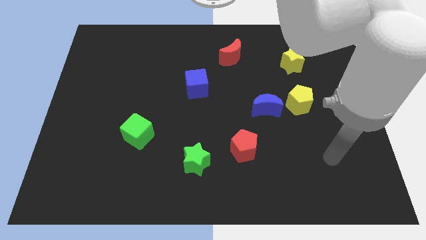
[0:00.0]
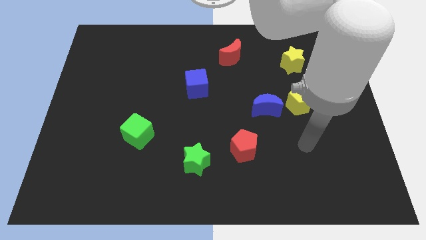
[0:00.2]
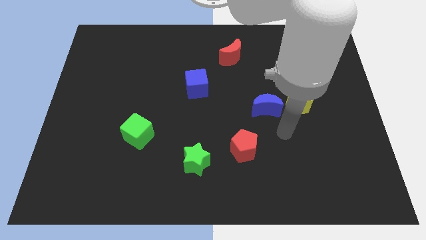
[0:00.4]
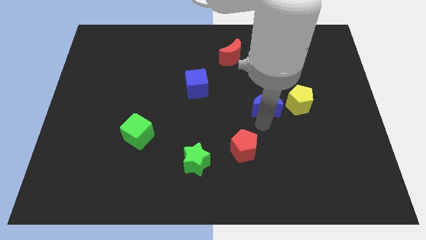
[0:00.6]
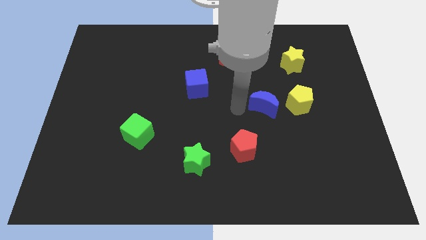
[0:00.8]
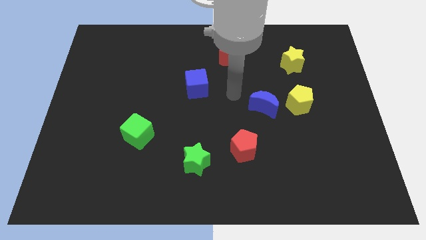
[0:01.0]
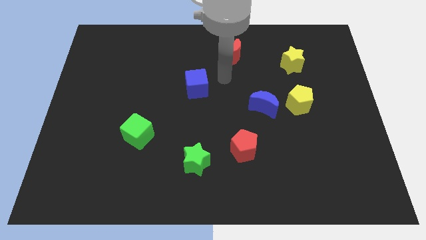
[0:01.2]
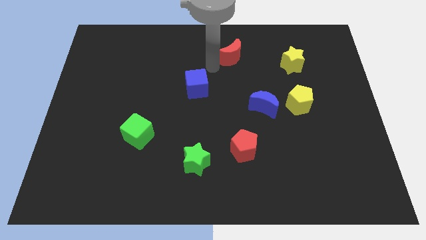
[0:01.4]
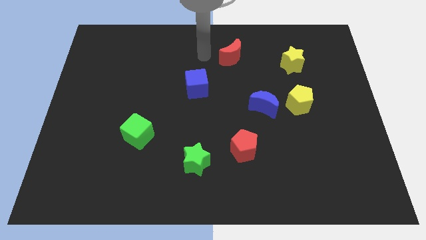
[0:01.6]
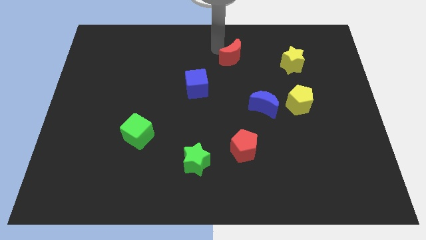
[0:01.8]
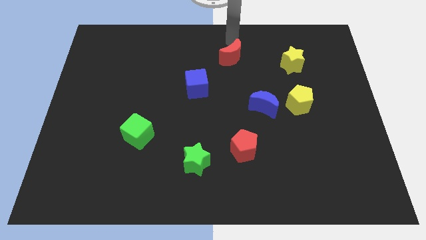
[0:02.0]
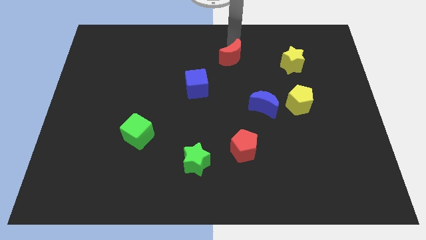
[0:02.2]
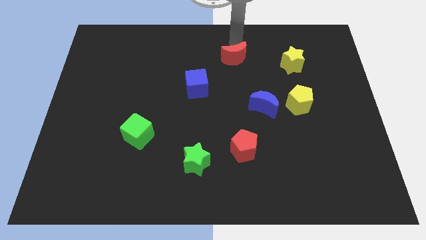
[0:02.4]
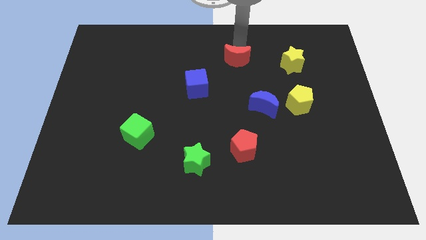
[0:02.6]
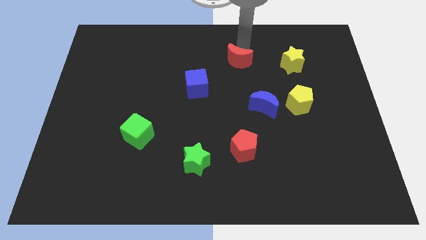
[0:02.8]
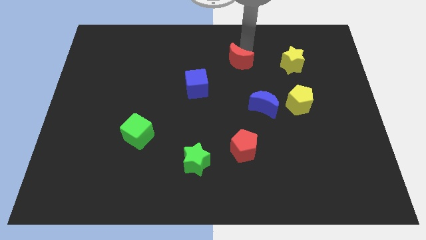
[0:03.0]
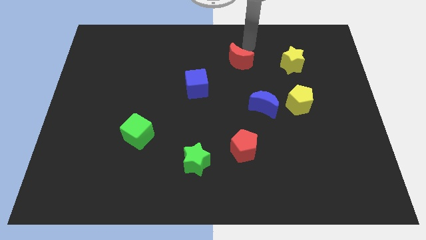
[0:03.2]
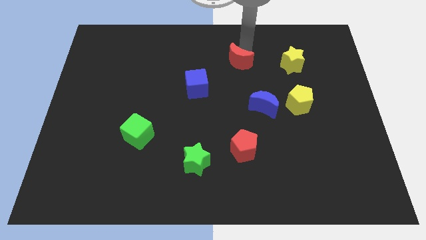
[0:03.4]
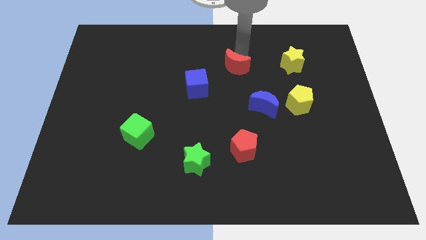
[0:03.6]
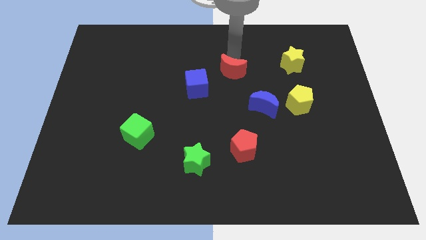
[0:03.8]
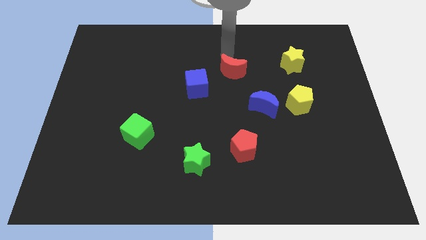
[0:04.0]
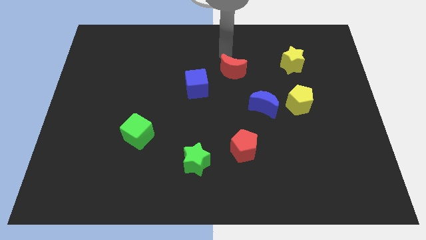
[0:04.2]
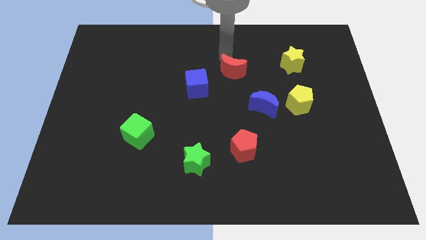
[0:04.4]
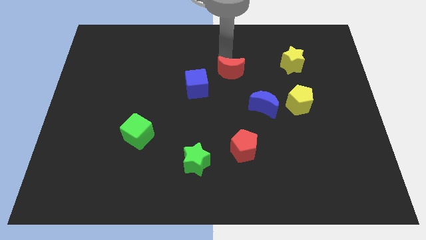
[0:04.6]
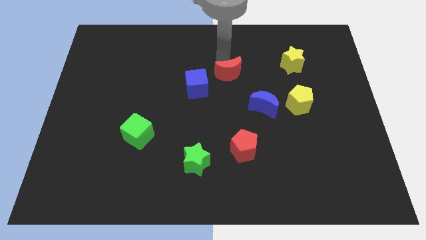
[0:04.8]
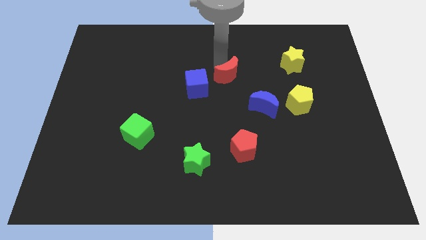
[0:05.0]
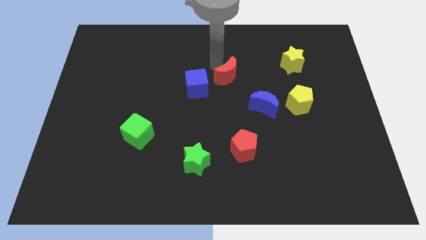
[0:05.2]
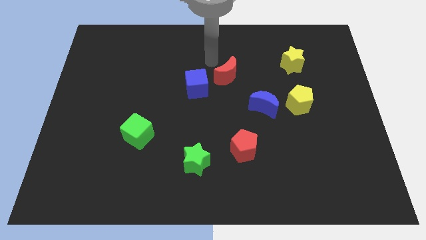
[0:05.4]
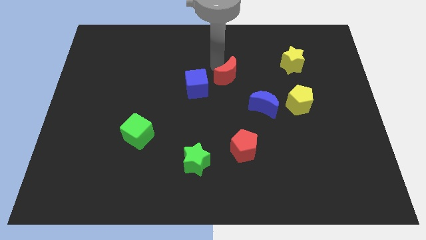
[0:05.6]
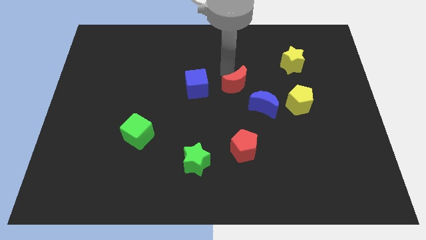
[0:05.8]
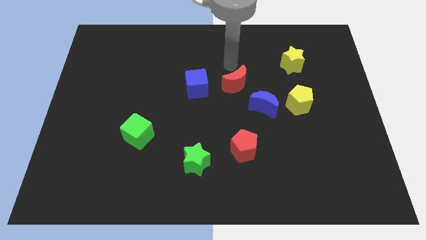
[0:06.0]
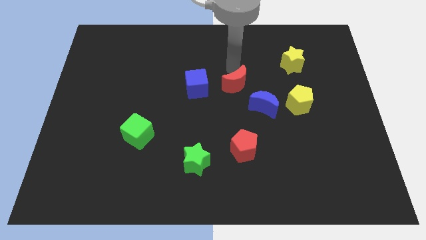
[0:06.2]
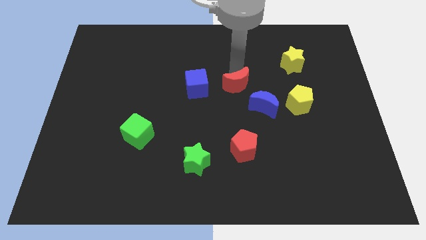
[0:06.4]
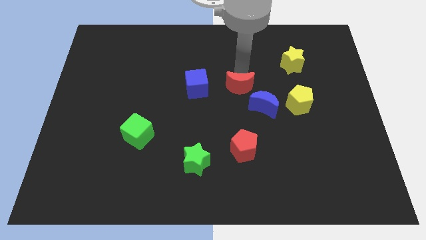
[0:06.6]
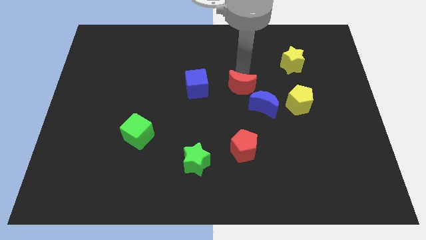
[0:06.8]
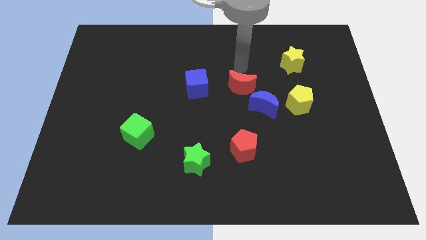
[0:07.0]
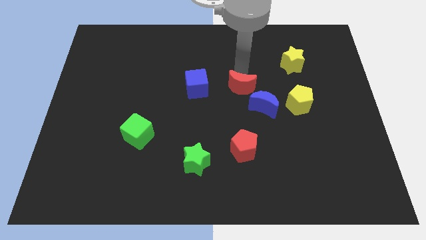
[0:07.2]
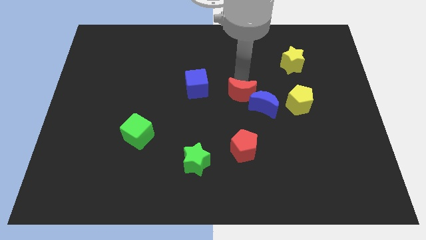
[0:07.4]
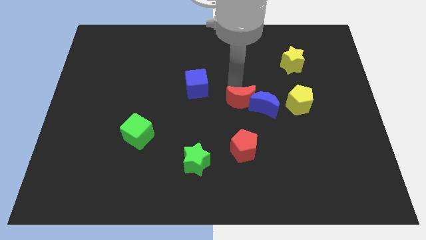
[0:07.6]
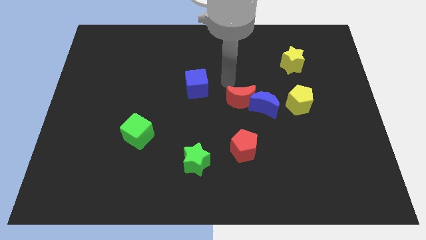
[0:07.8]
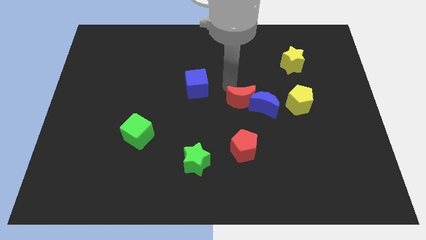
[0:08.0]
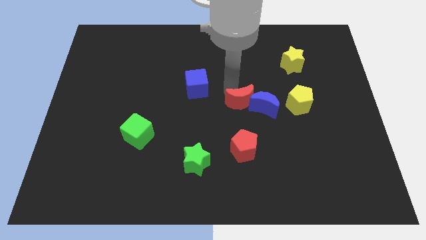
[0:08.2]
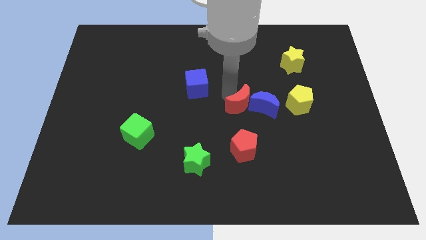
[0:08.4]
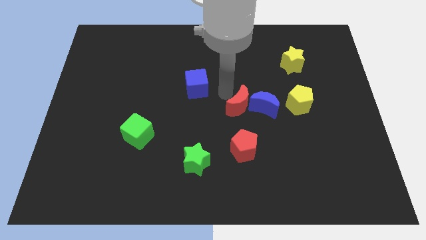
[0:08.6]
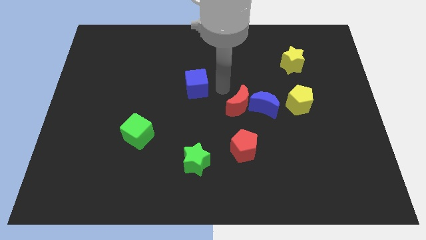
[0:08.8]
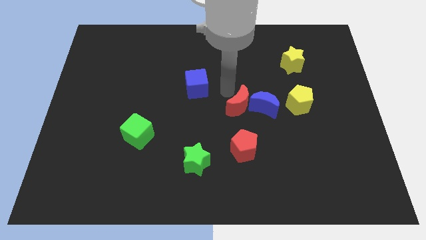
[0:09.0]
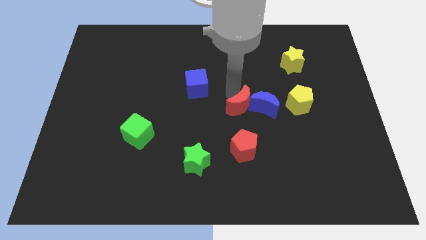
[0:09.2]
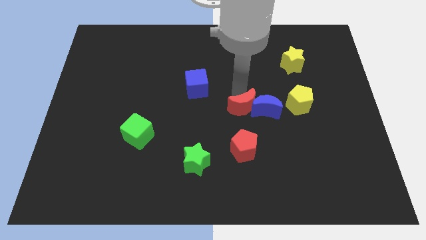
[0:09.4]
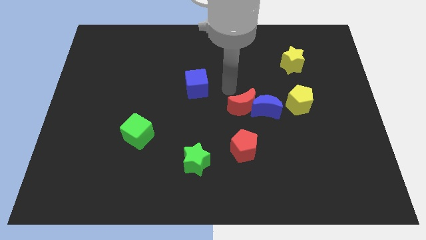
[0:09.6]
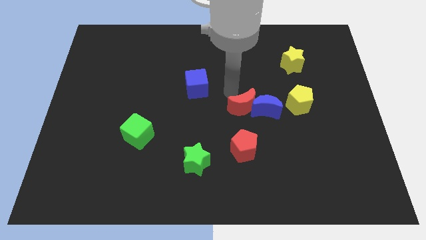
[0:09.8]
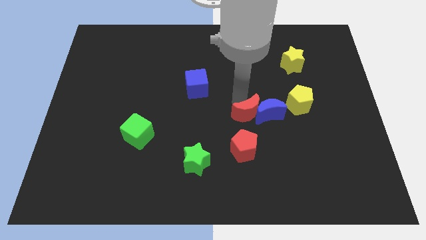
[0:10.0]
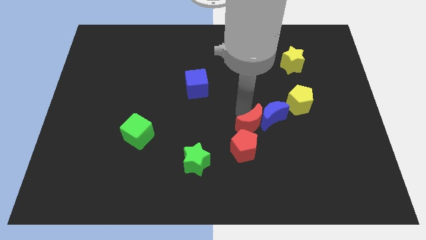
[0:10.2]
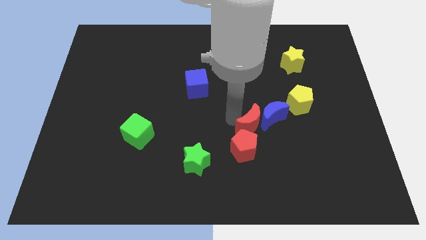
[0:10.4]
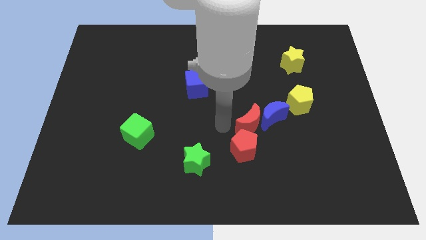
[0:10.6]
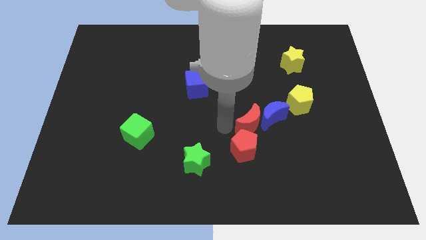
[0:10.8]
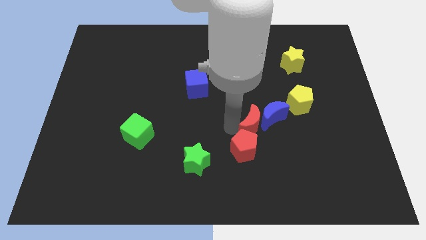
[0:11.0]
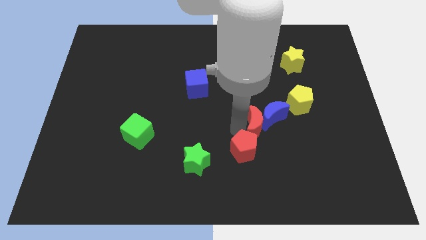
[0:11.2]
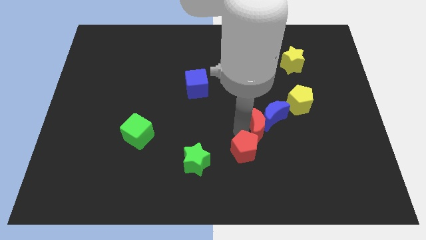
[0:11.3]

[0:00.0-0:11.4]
move the red moon diagonally down and to the left of the yellow pentagon

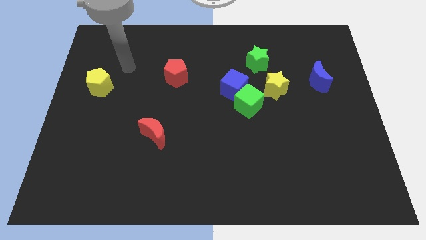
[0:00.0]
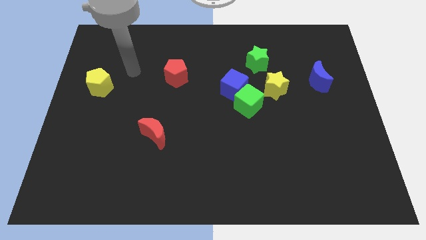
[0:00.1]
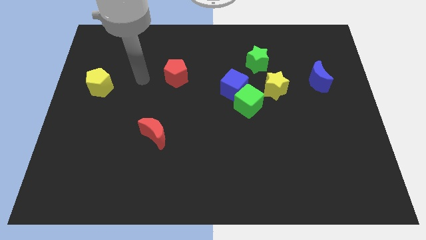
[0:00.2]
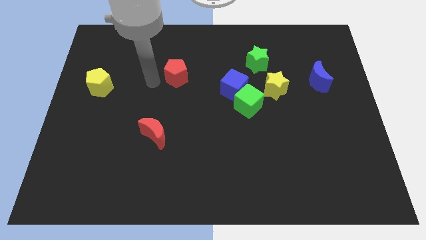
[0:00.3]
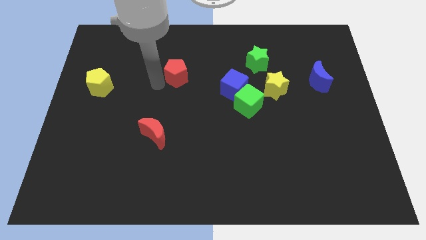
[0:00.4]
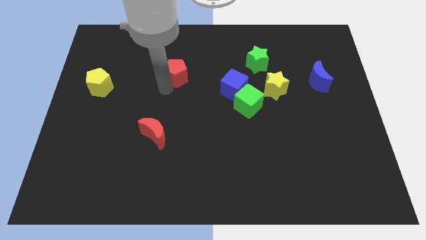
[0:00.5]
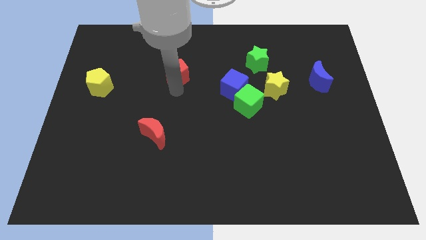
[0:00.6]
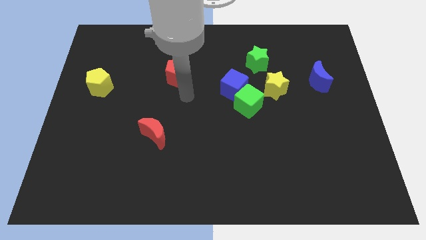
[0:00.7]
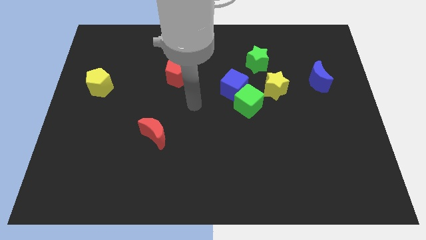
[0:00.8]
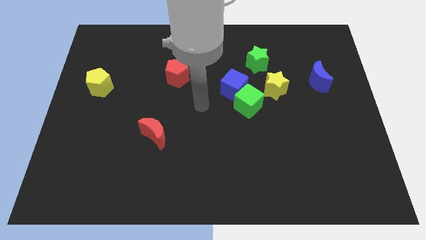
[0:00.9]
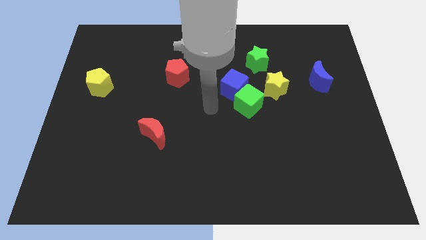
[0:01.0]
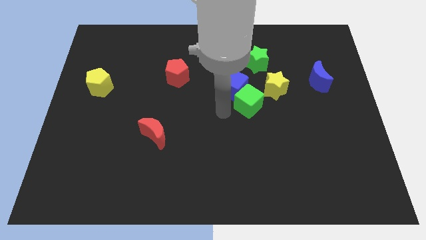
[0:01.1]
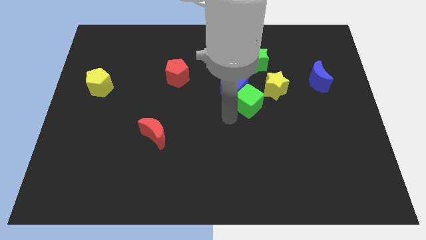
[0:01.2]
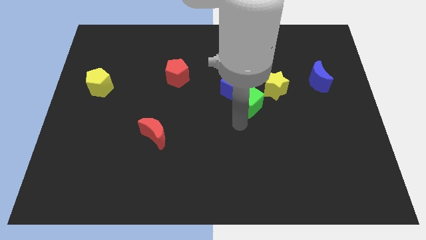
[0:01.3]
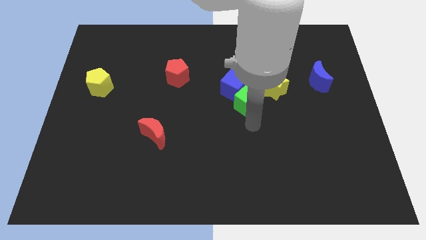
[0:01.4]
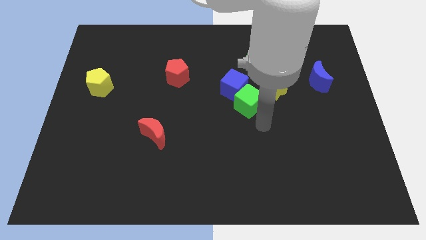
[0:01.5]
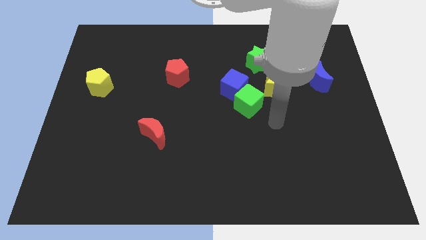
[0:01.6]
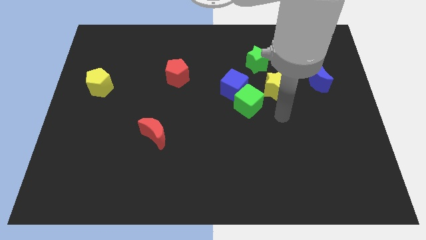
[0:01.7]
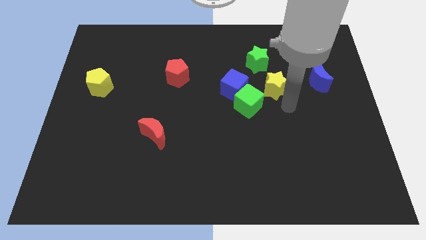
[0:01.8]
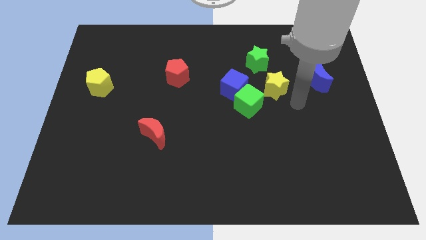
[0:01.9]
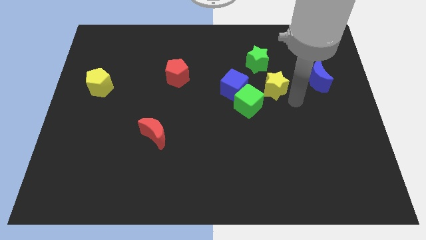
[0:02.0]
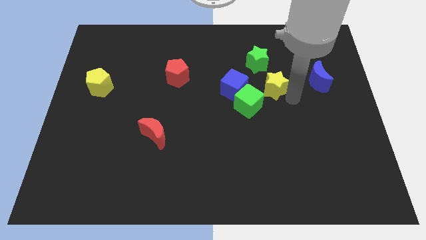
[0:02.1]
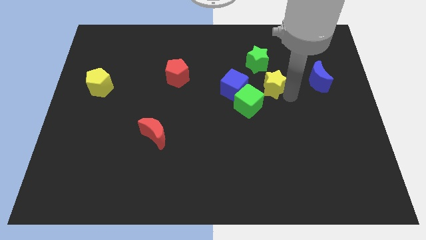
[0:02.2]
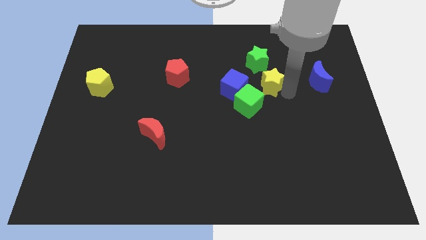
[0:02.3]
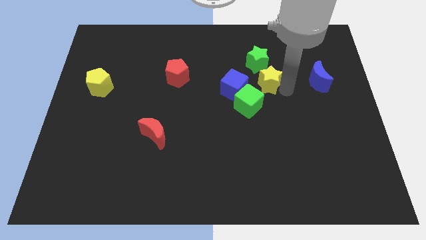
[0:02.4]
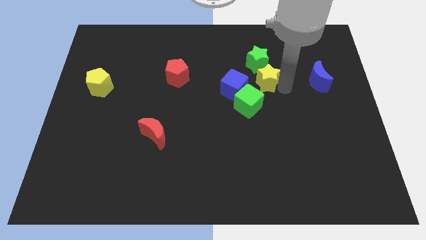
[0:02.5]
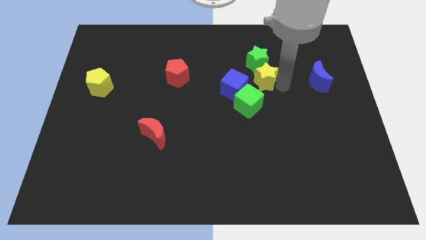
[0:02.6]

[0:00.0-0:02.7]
put the yellow star to the top side of the green cube
